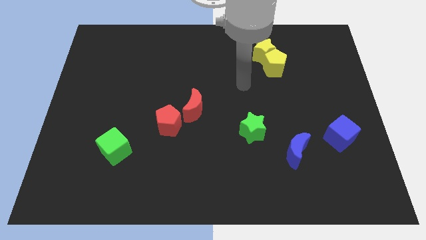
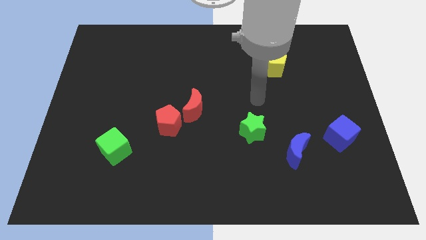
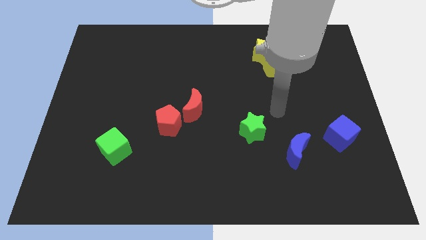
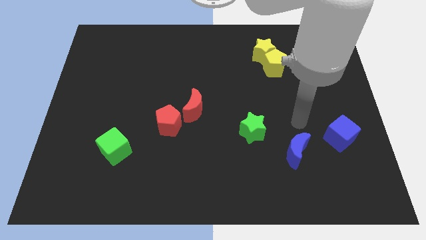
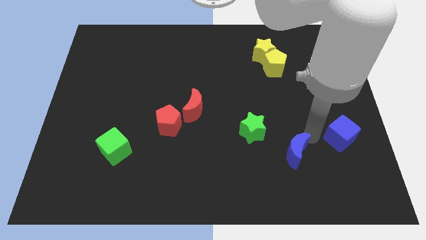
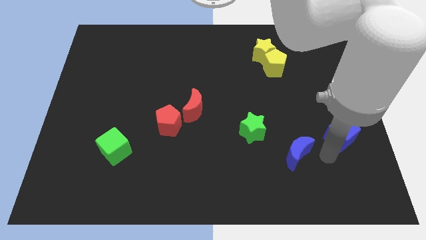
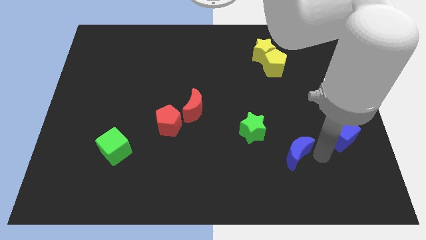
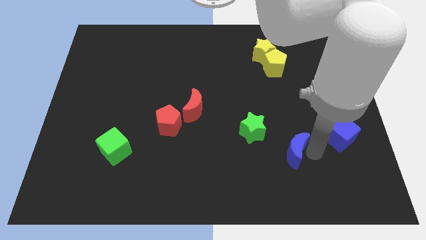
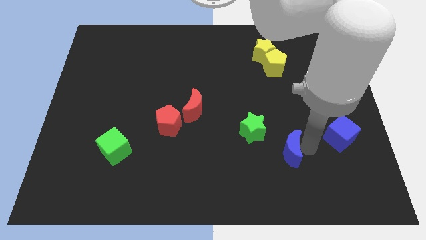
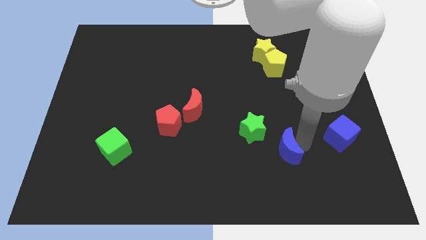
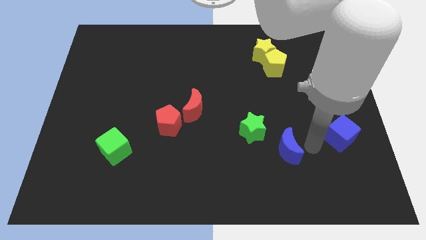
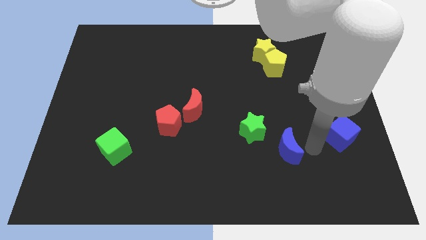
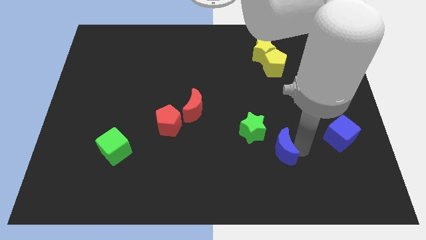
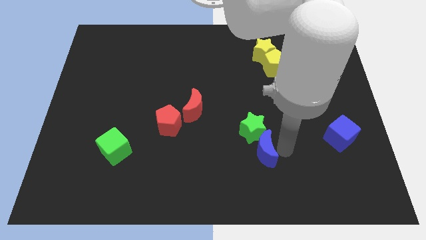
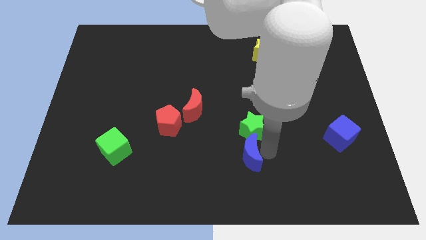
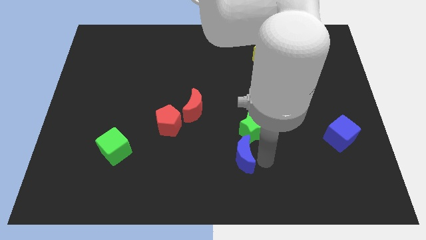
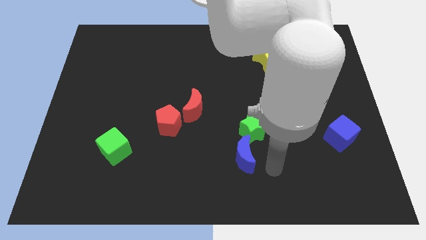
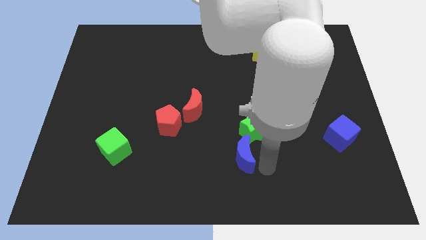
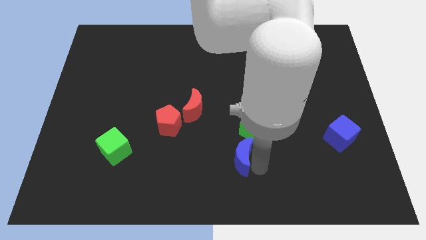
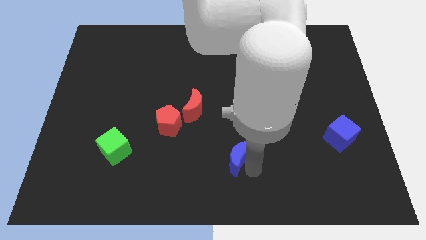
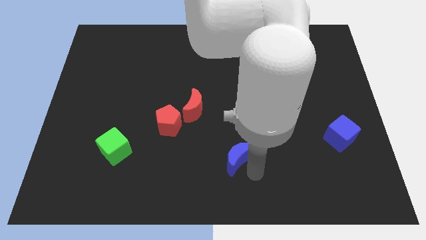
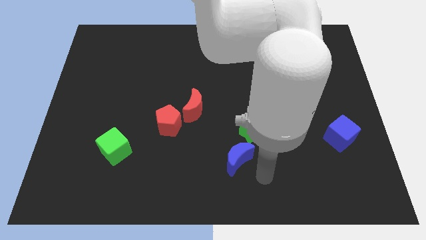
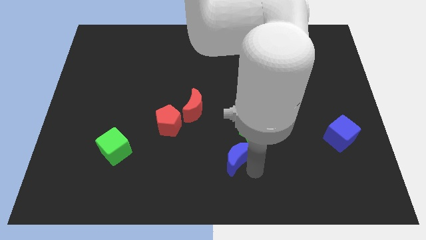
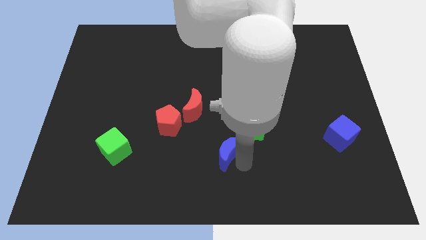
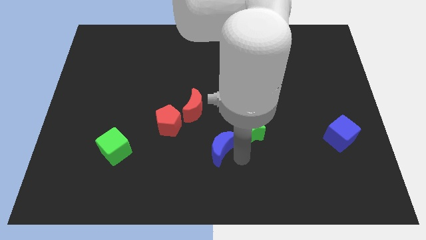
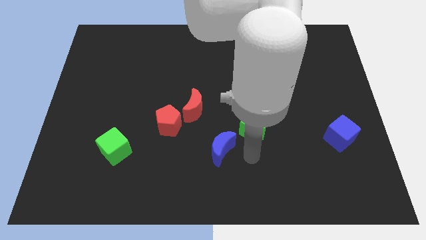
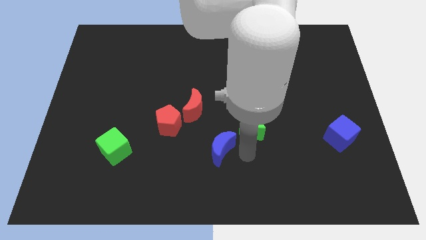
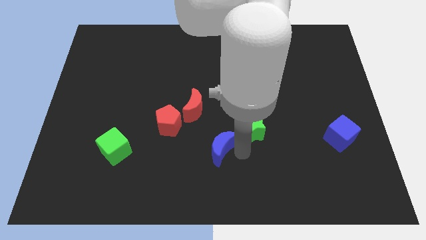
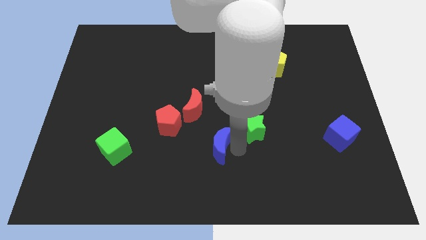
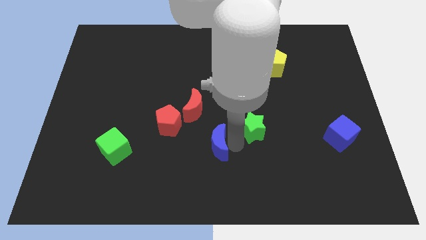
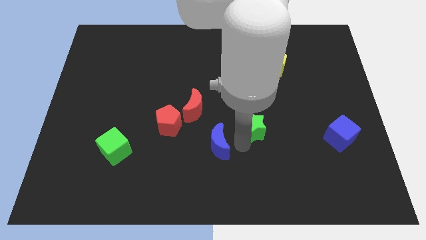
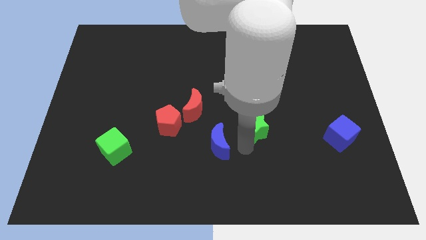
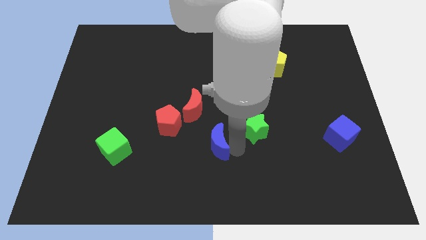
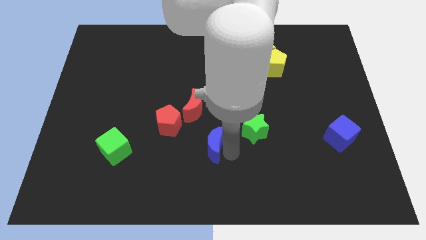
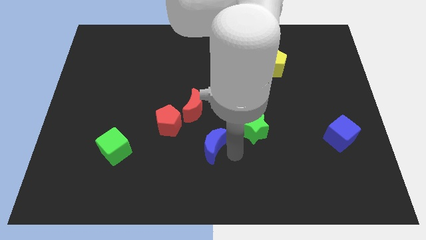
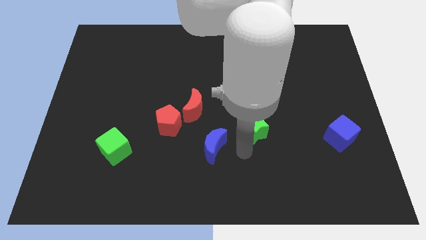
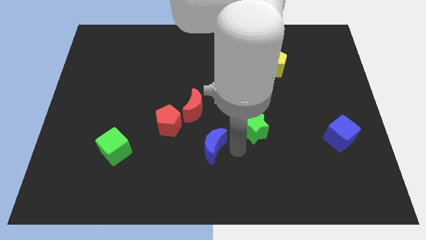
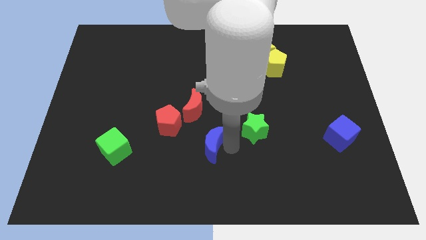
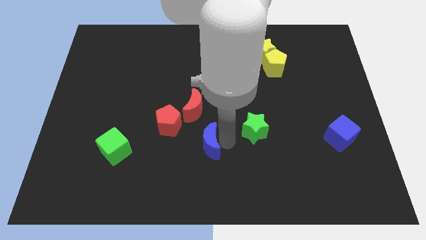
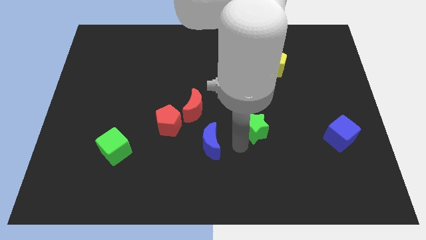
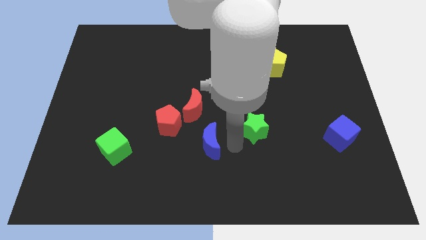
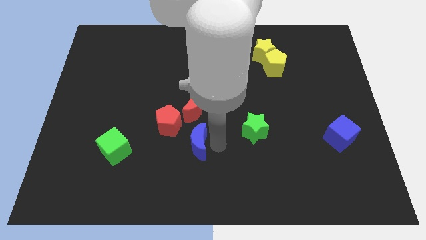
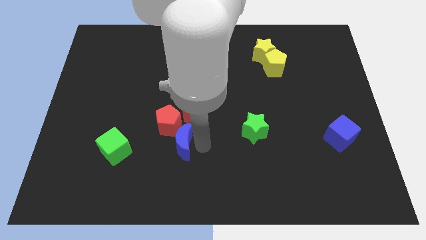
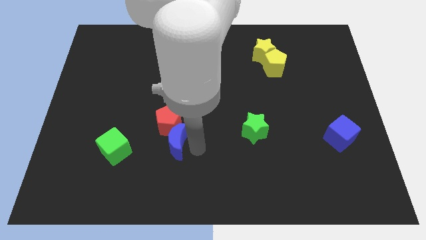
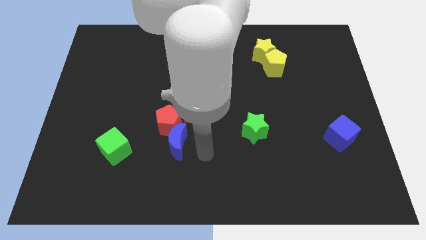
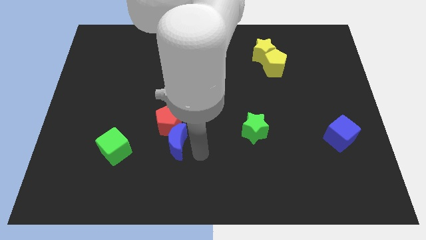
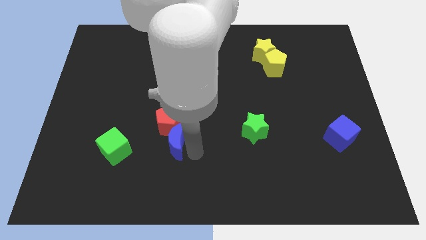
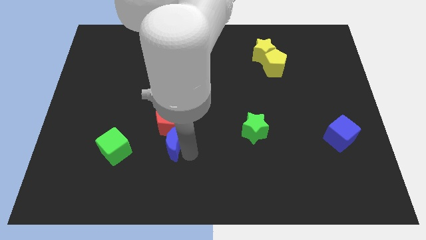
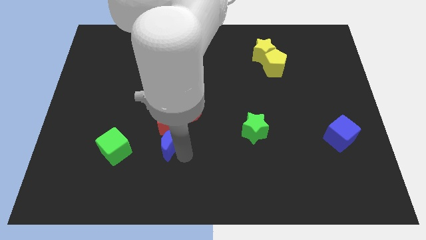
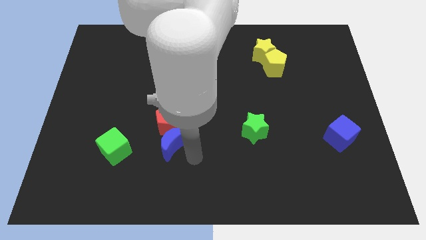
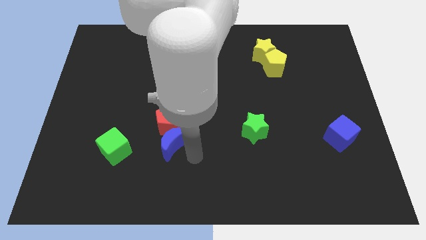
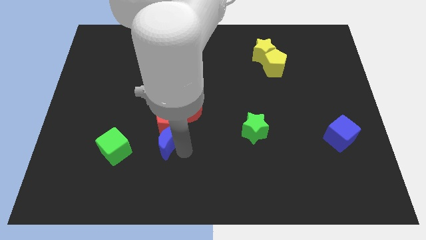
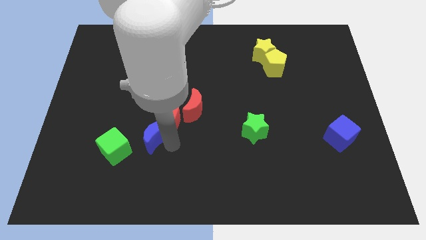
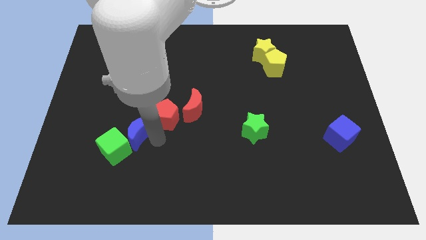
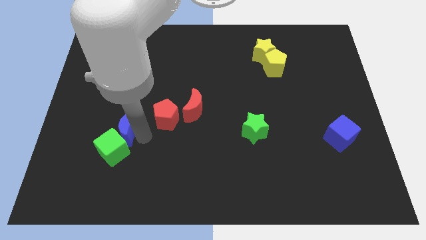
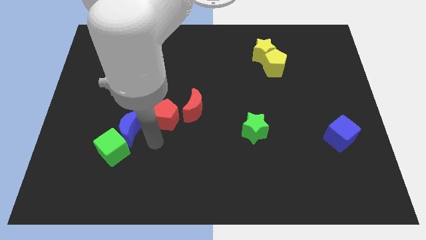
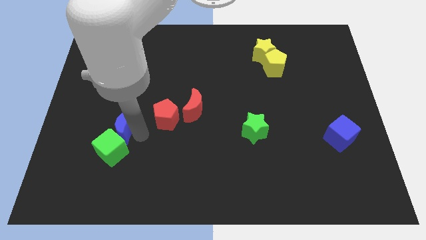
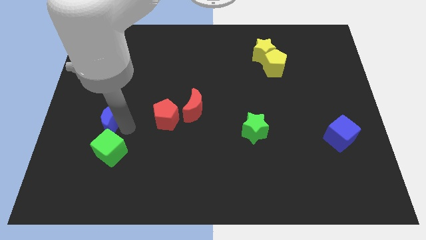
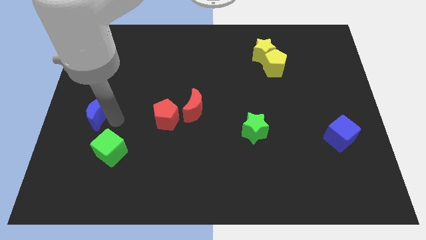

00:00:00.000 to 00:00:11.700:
put the blue moon to the left side

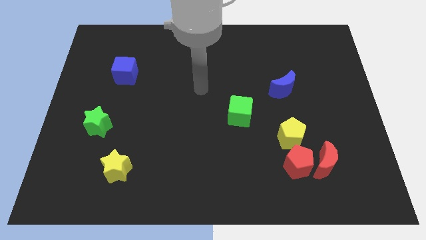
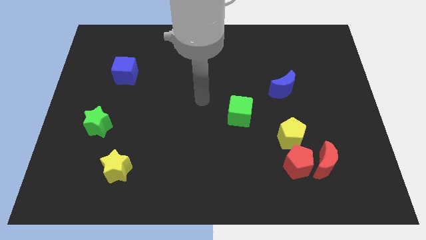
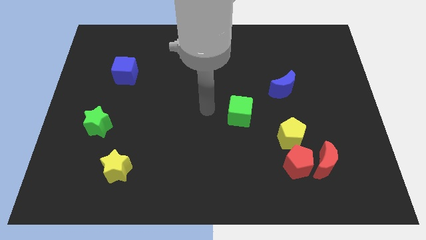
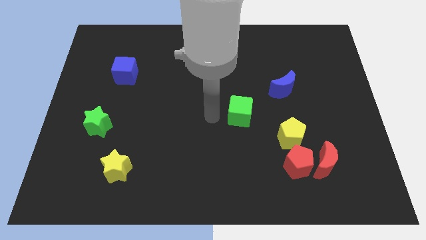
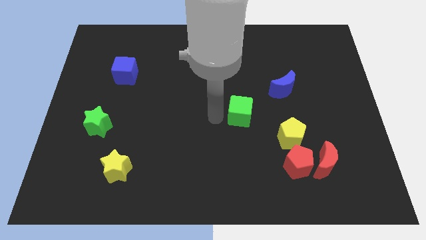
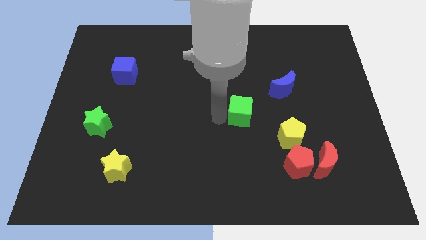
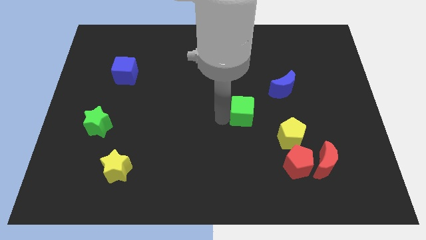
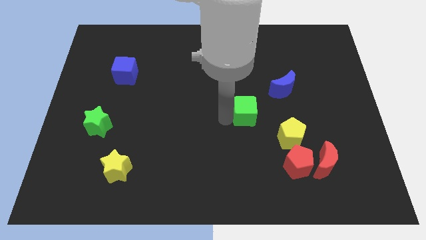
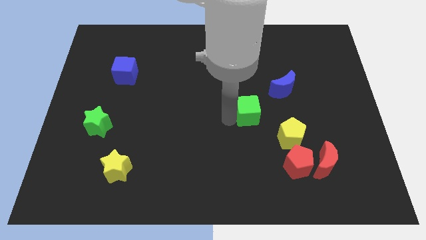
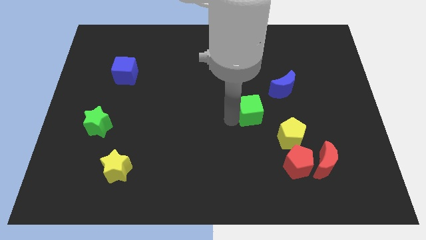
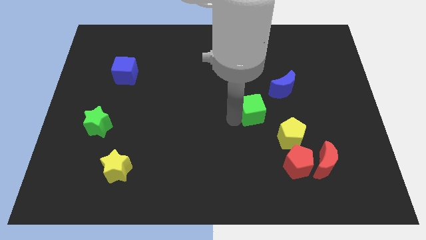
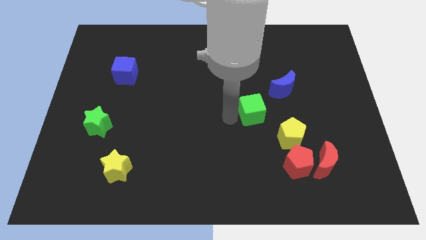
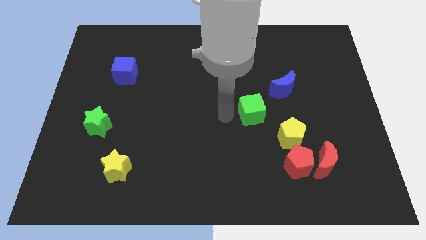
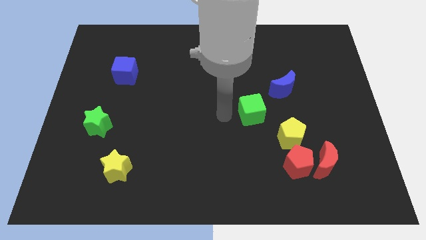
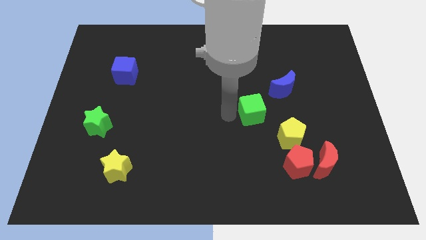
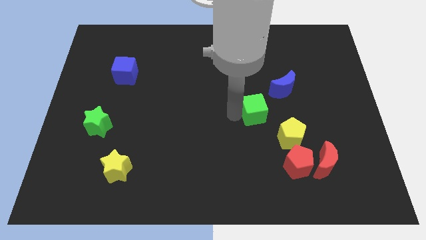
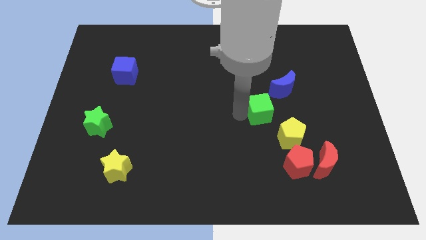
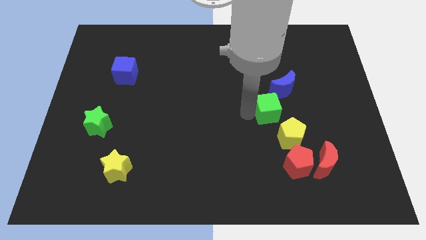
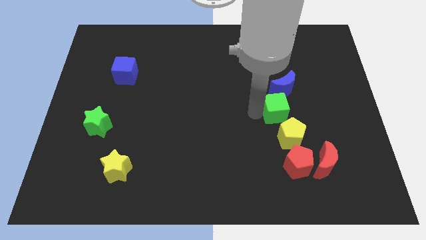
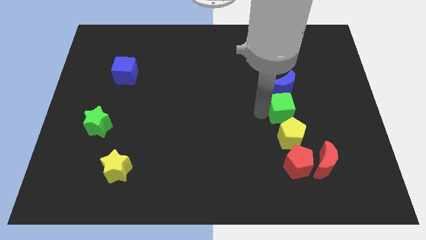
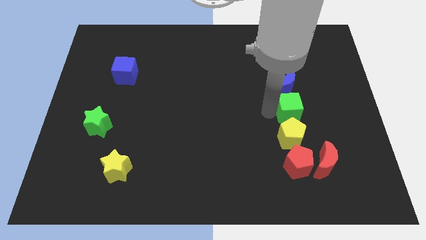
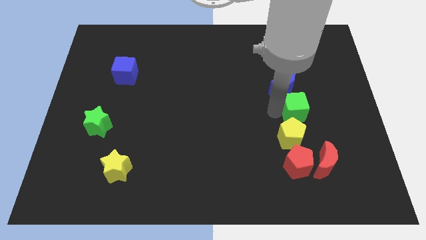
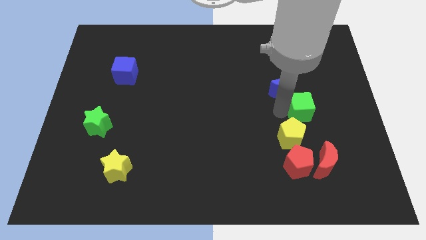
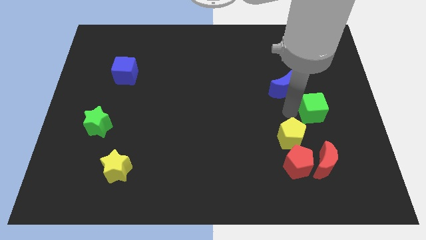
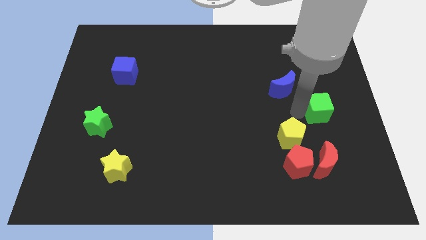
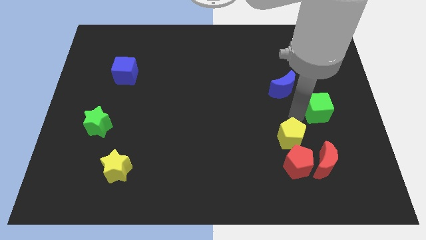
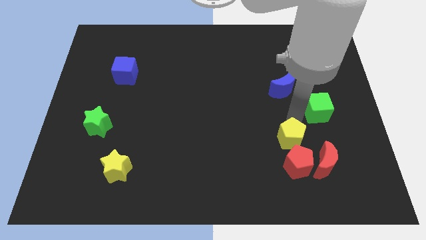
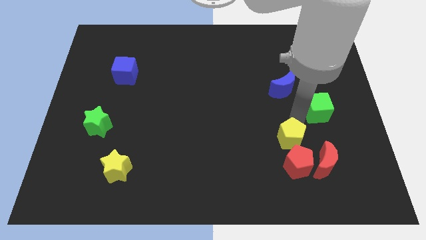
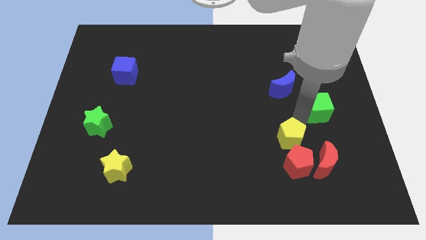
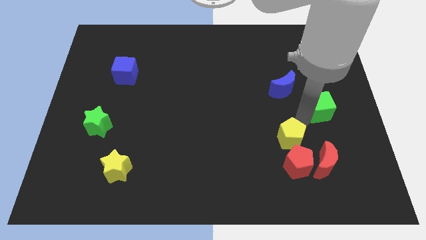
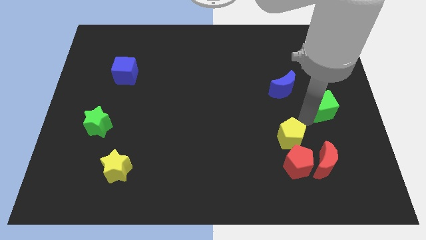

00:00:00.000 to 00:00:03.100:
put the green cube to the right side
